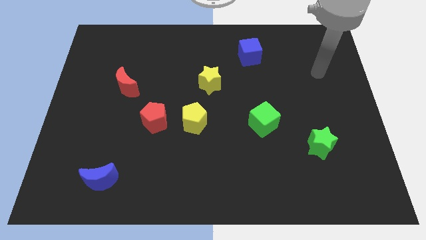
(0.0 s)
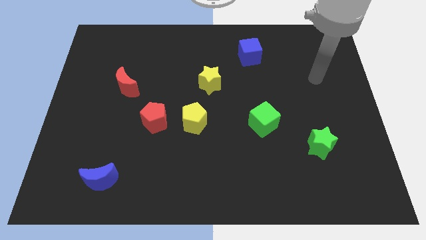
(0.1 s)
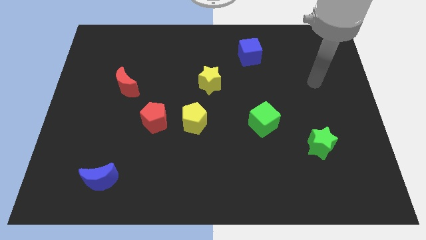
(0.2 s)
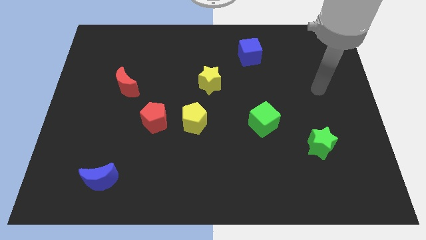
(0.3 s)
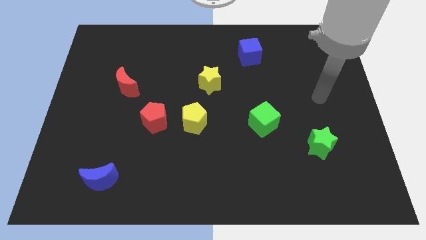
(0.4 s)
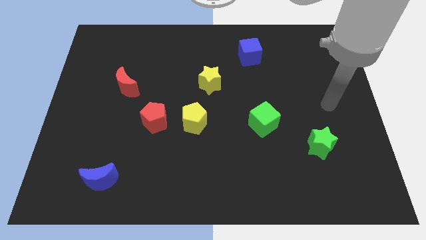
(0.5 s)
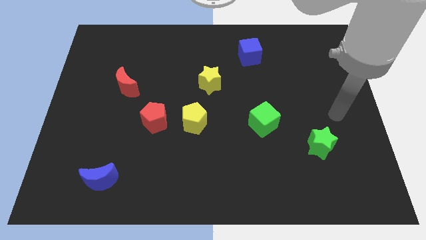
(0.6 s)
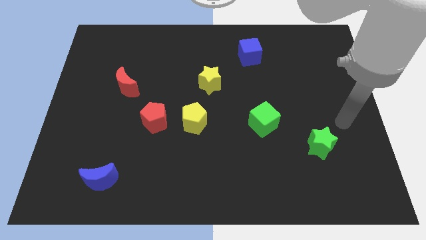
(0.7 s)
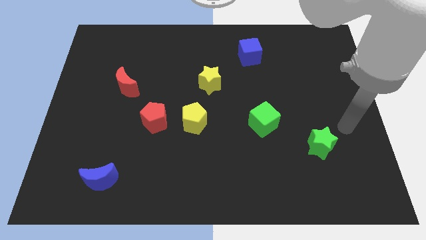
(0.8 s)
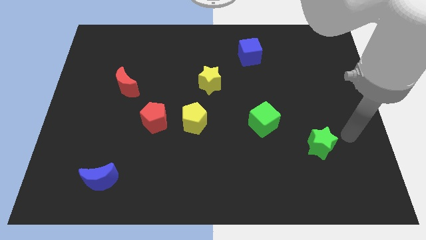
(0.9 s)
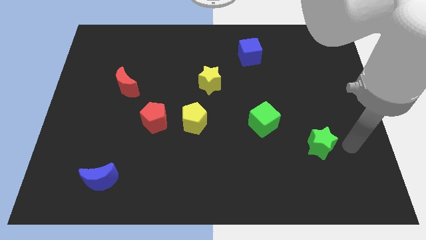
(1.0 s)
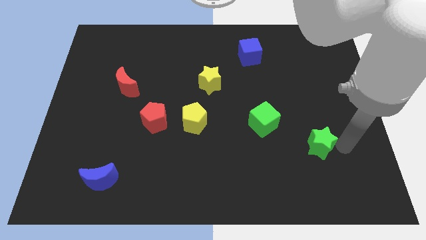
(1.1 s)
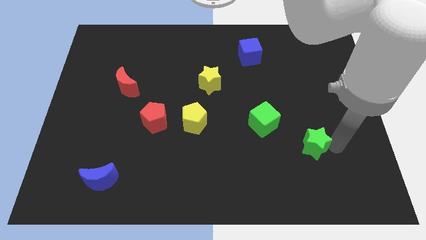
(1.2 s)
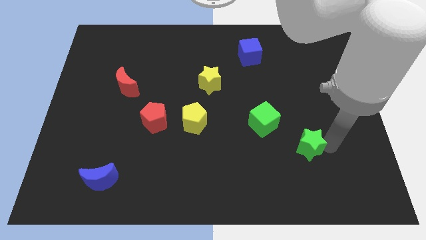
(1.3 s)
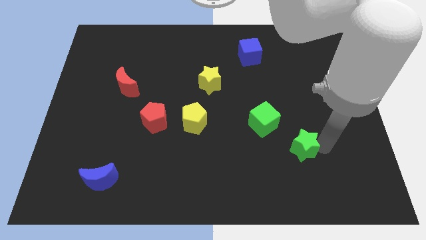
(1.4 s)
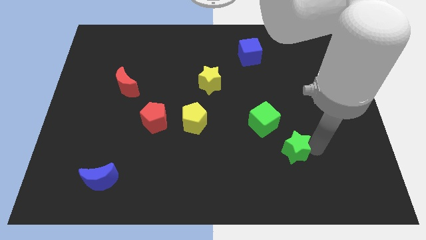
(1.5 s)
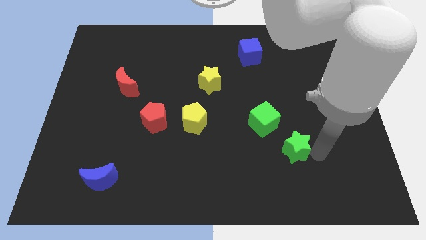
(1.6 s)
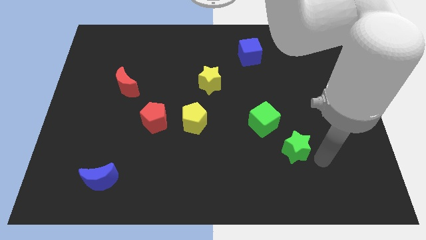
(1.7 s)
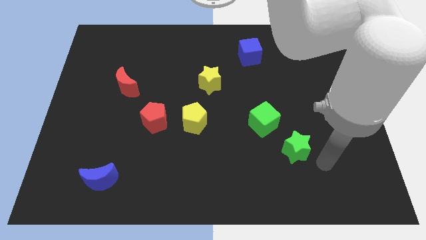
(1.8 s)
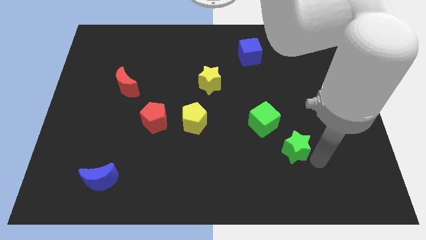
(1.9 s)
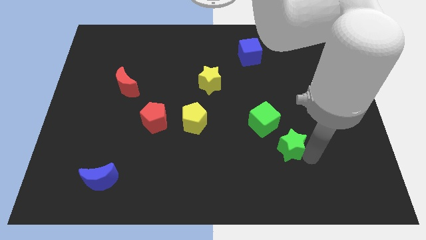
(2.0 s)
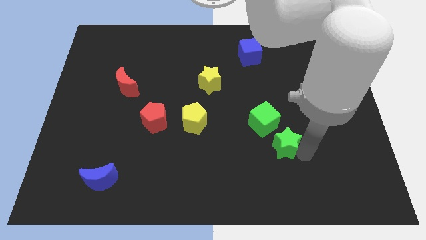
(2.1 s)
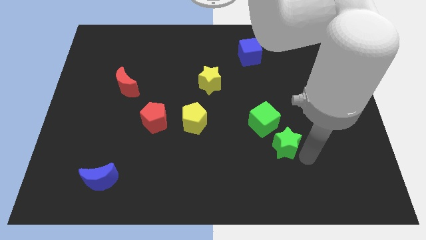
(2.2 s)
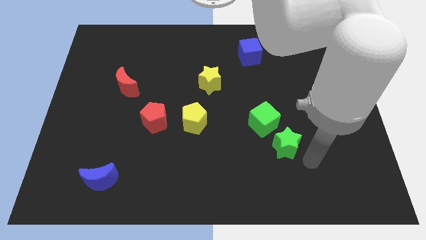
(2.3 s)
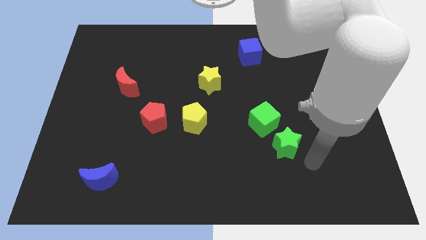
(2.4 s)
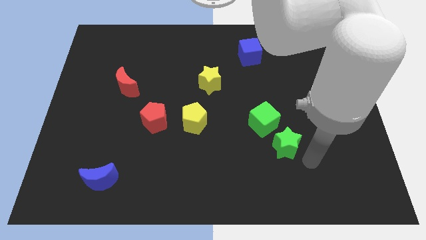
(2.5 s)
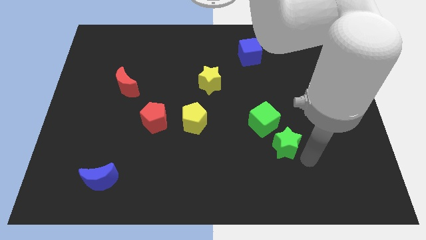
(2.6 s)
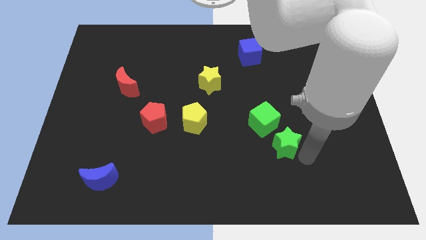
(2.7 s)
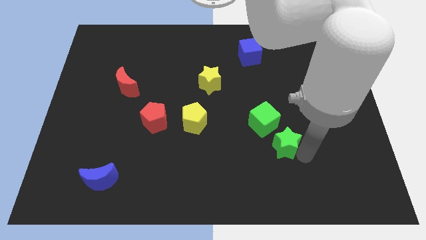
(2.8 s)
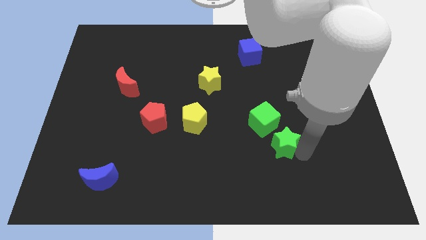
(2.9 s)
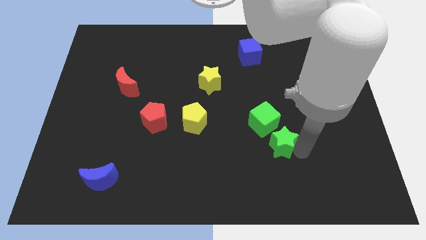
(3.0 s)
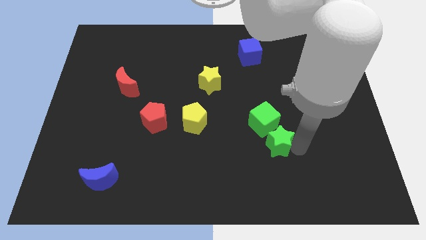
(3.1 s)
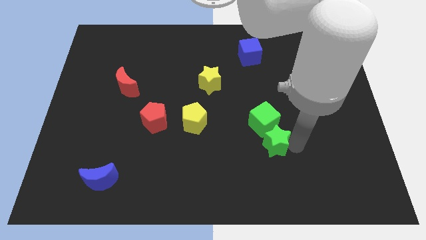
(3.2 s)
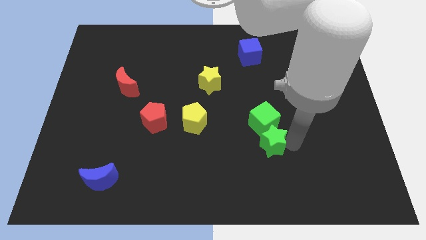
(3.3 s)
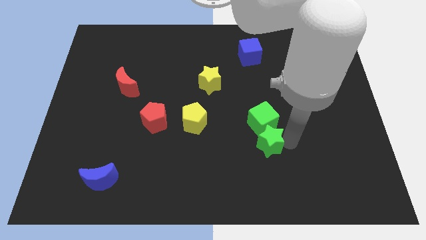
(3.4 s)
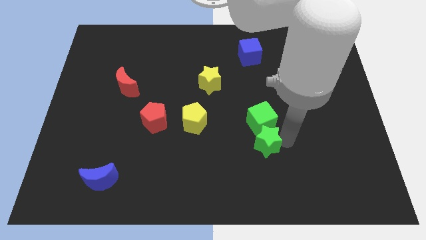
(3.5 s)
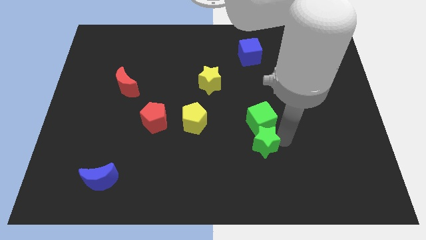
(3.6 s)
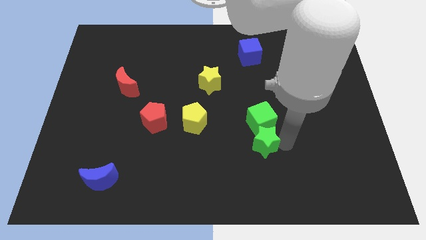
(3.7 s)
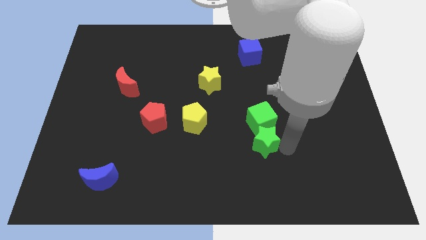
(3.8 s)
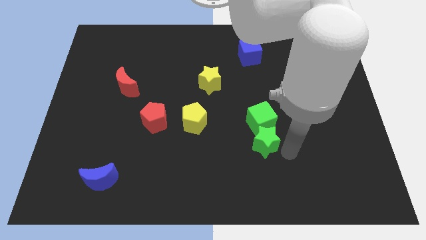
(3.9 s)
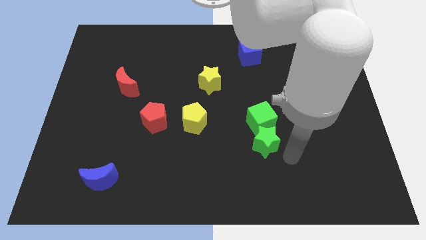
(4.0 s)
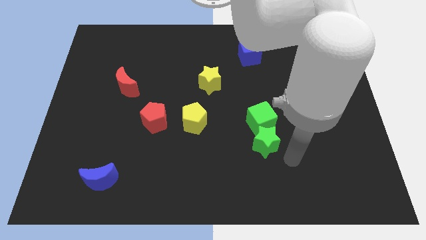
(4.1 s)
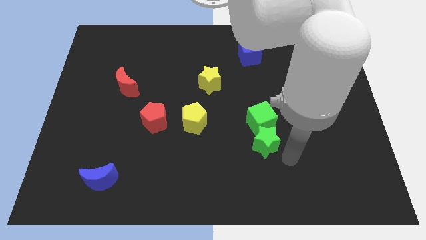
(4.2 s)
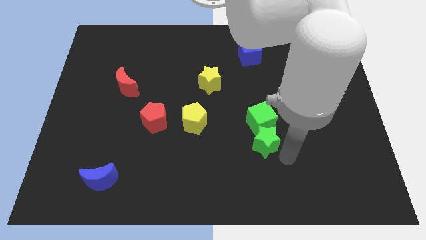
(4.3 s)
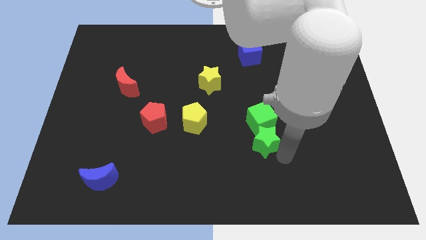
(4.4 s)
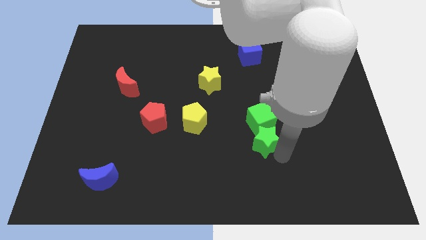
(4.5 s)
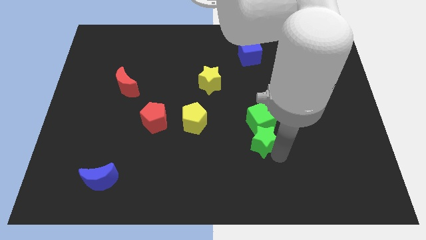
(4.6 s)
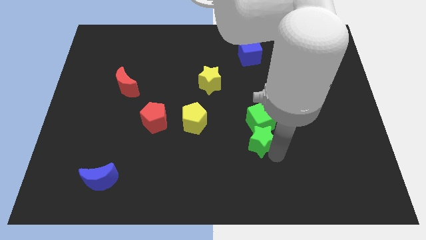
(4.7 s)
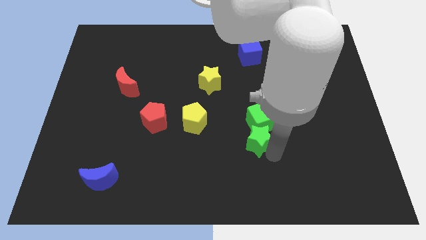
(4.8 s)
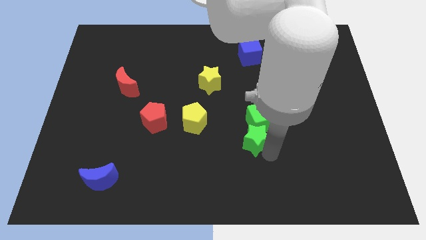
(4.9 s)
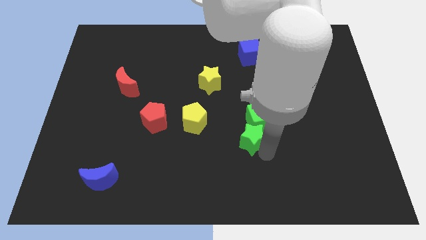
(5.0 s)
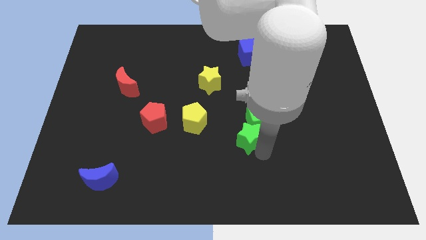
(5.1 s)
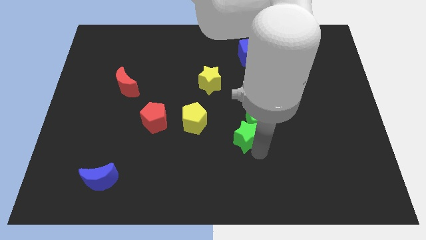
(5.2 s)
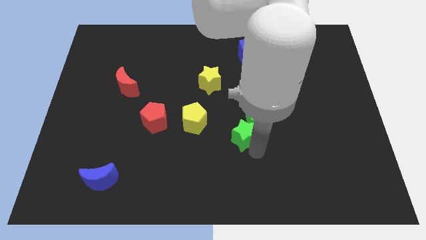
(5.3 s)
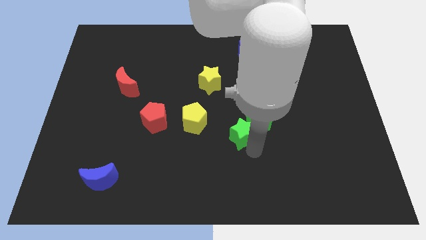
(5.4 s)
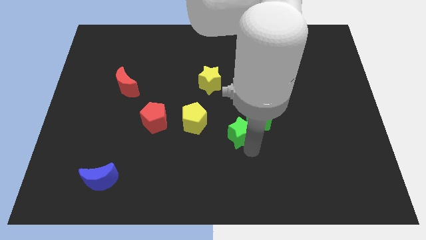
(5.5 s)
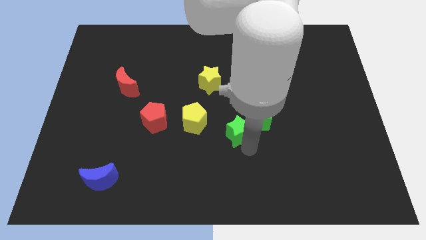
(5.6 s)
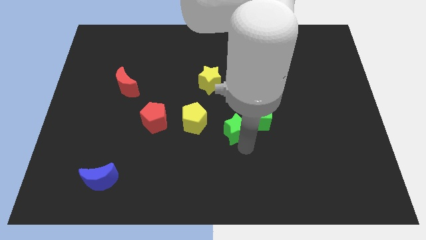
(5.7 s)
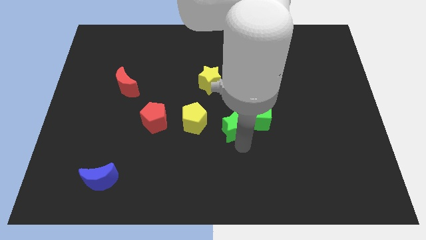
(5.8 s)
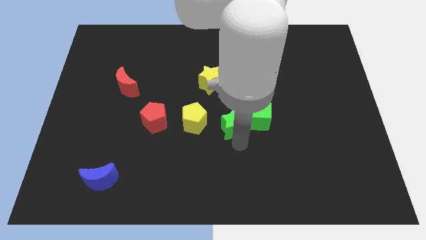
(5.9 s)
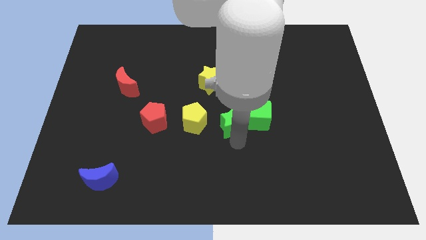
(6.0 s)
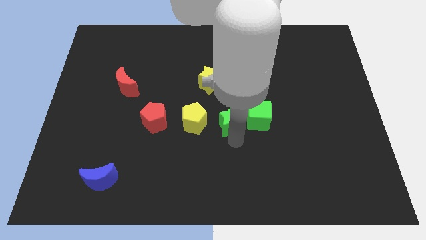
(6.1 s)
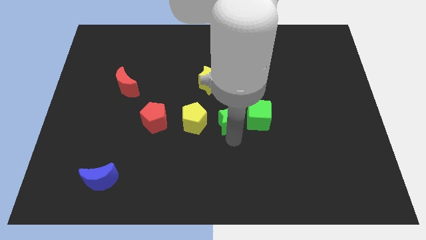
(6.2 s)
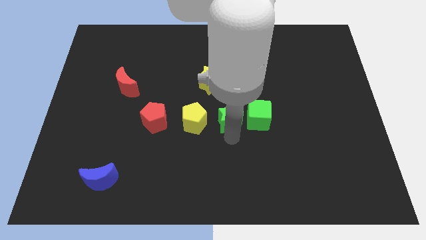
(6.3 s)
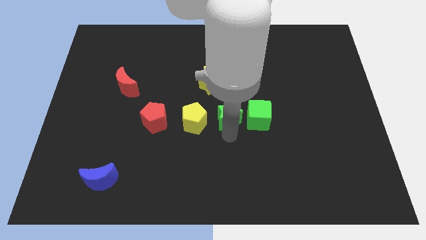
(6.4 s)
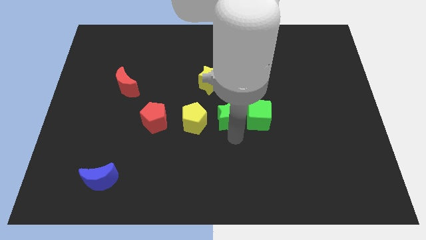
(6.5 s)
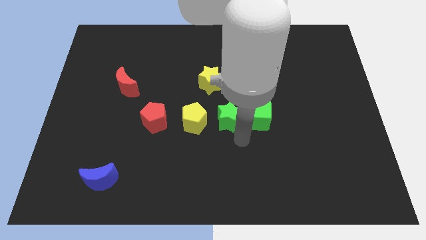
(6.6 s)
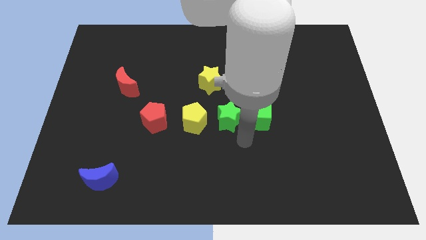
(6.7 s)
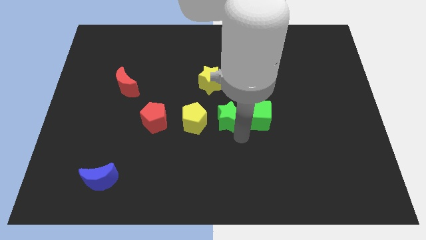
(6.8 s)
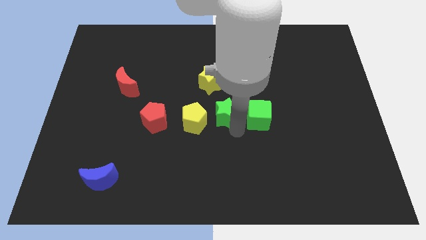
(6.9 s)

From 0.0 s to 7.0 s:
slide the green star to the top right side of the yellow pentagon

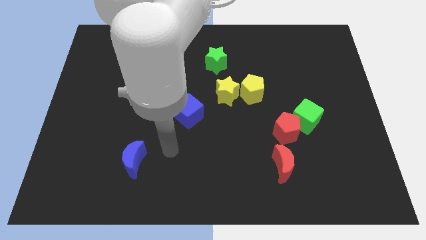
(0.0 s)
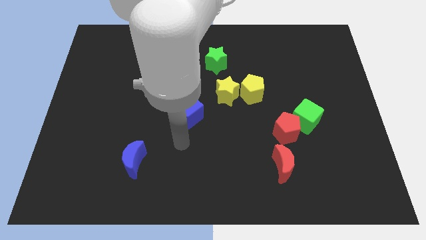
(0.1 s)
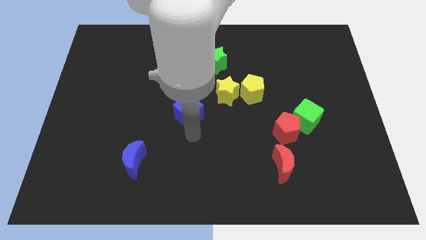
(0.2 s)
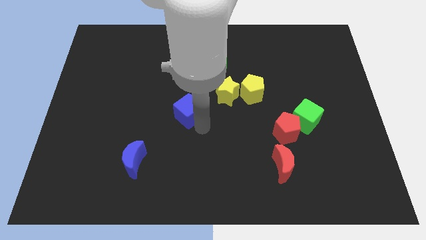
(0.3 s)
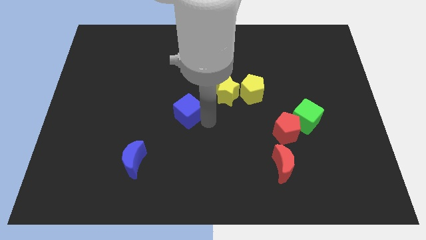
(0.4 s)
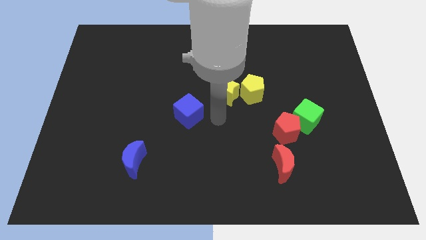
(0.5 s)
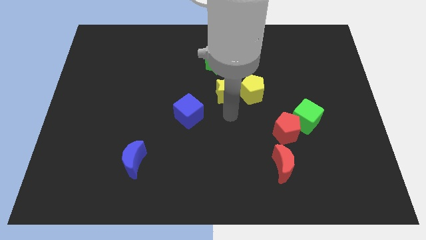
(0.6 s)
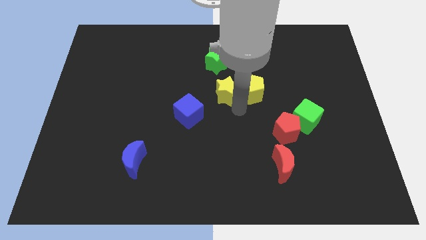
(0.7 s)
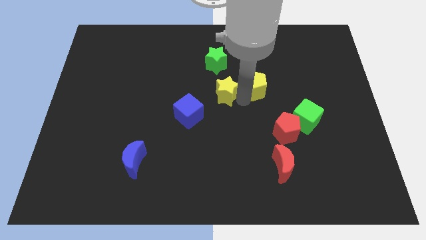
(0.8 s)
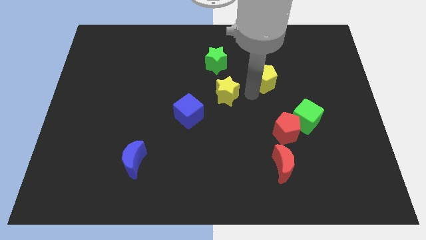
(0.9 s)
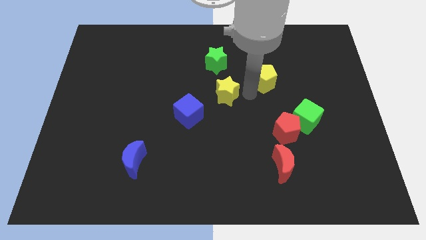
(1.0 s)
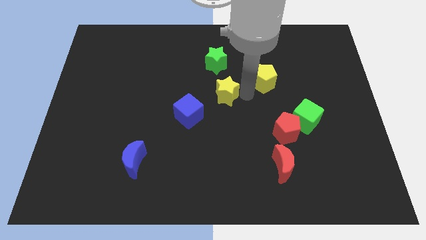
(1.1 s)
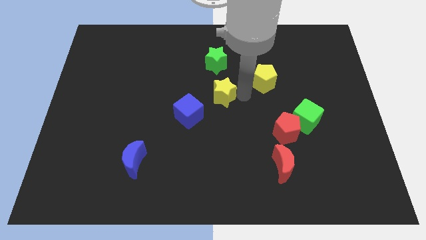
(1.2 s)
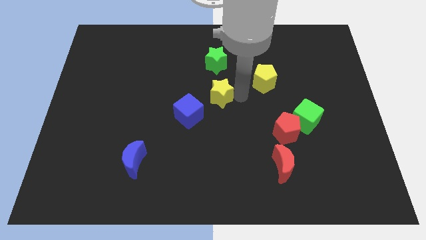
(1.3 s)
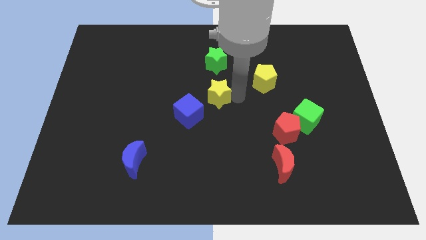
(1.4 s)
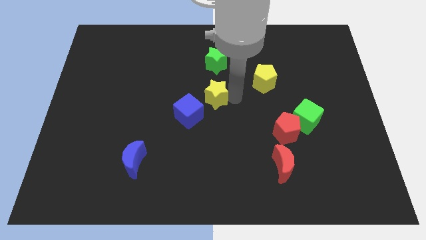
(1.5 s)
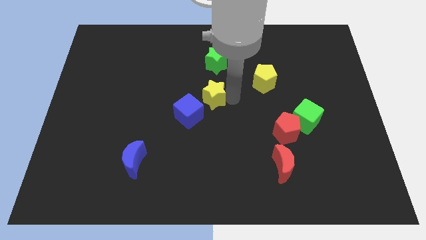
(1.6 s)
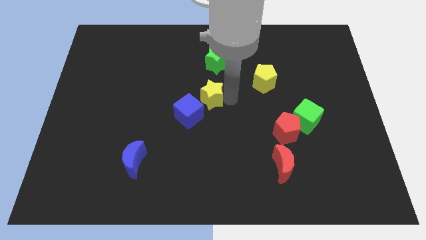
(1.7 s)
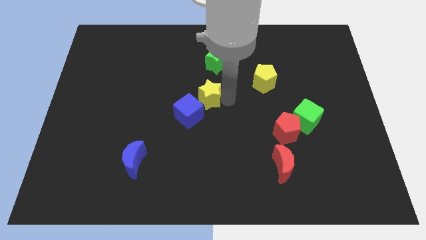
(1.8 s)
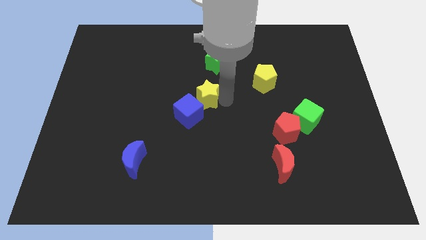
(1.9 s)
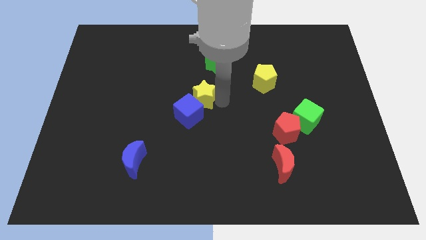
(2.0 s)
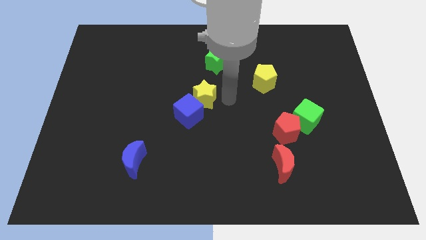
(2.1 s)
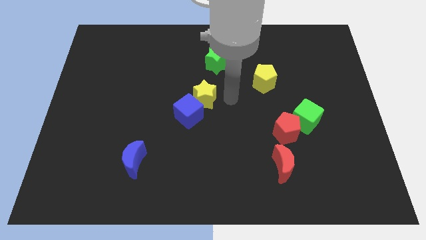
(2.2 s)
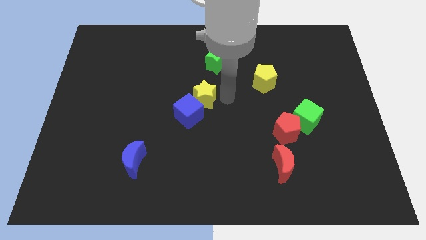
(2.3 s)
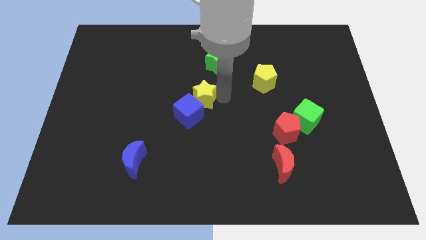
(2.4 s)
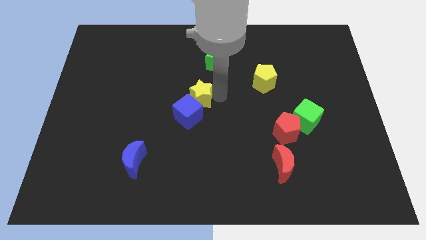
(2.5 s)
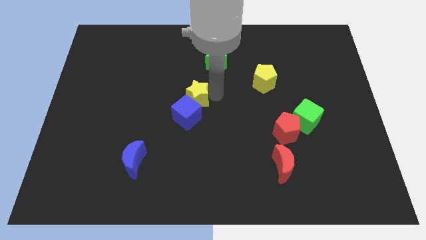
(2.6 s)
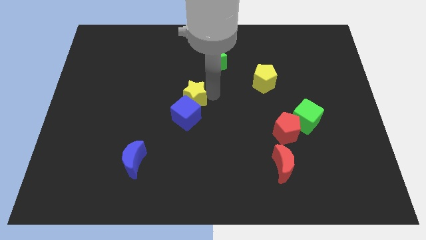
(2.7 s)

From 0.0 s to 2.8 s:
slide the yellow star to the top left side of the blue cube
